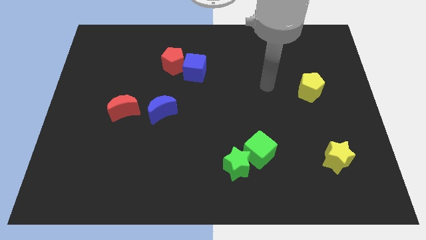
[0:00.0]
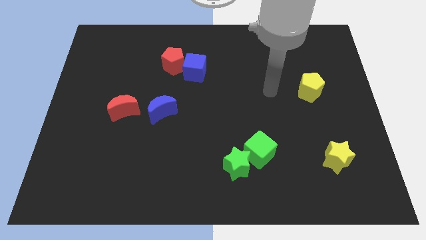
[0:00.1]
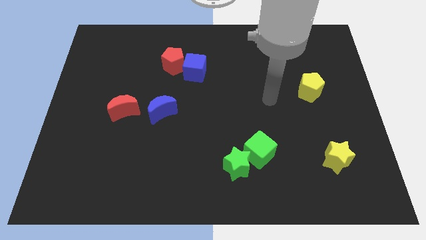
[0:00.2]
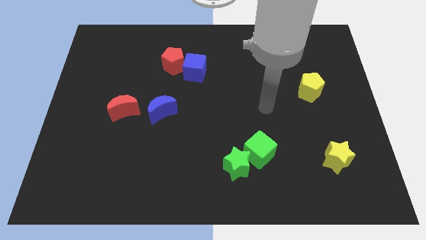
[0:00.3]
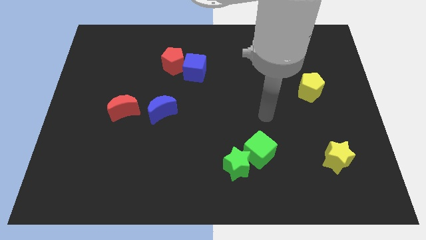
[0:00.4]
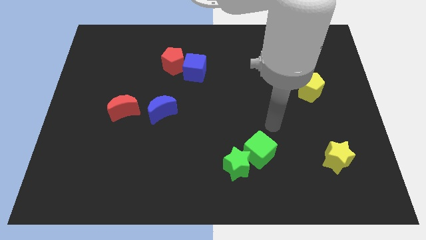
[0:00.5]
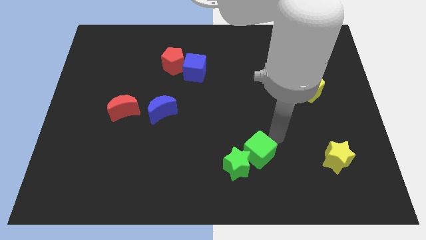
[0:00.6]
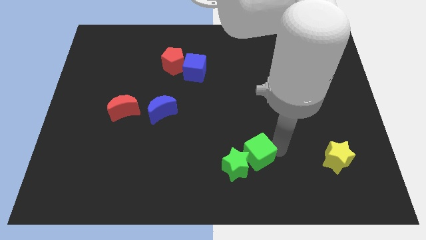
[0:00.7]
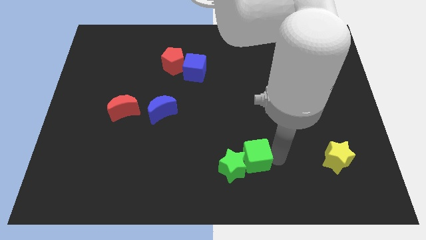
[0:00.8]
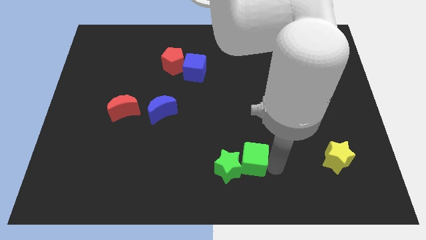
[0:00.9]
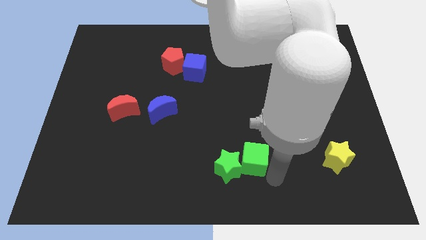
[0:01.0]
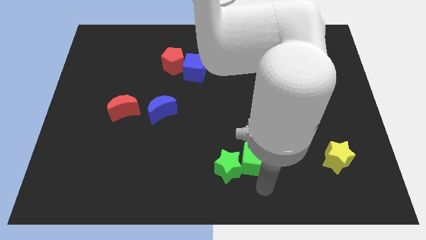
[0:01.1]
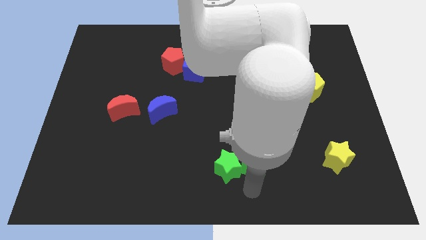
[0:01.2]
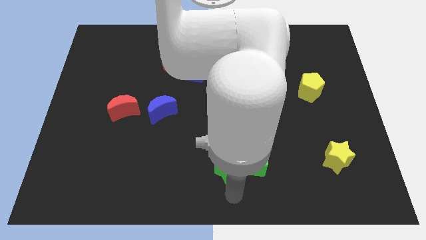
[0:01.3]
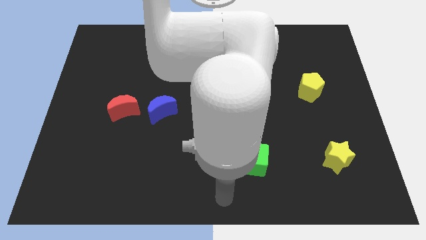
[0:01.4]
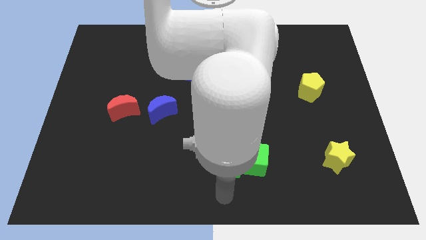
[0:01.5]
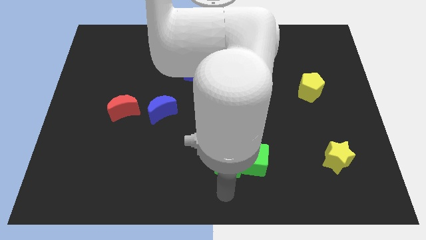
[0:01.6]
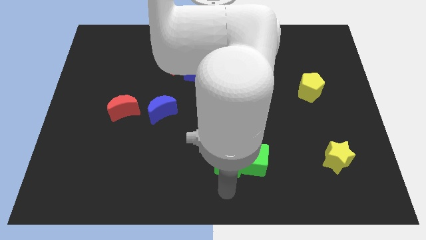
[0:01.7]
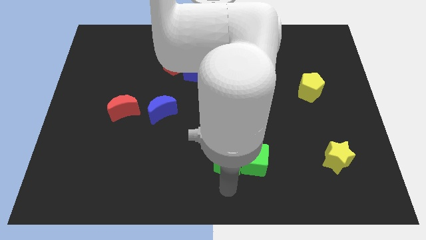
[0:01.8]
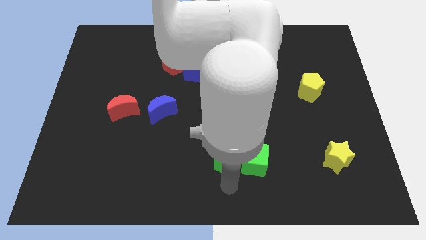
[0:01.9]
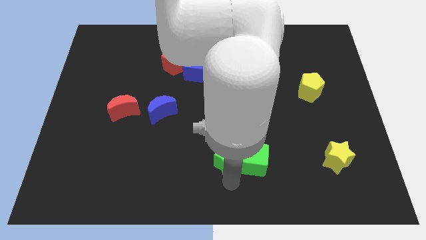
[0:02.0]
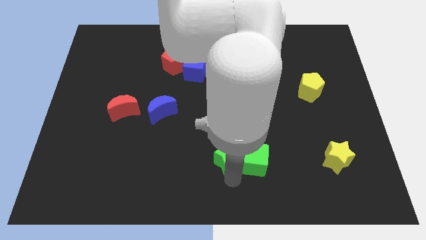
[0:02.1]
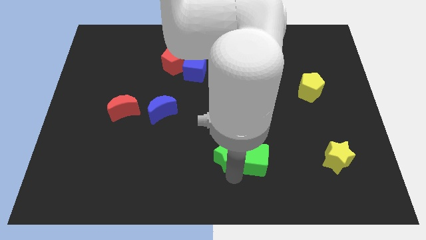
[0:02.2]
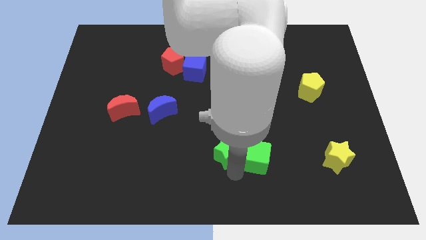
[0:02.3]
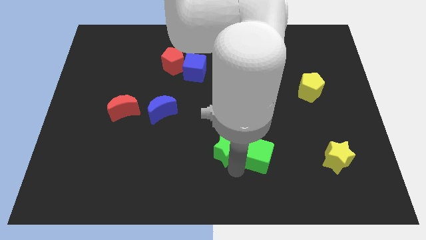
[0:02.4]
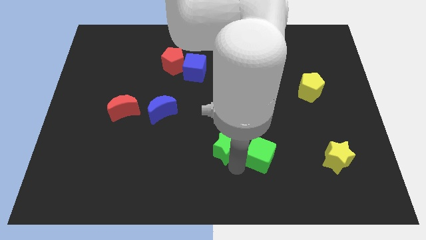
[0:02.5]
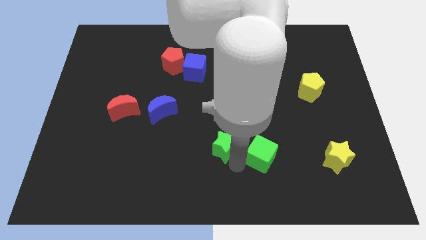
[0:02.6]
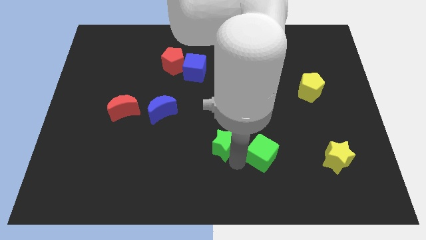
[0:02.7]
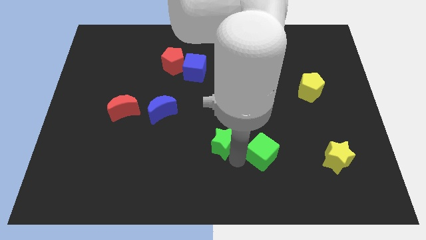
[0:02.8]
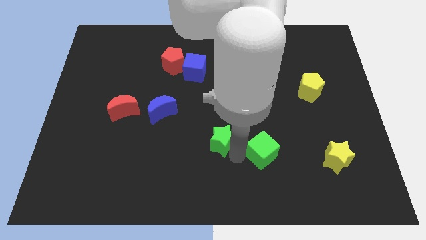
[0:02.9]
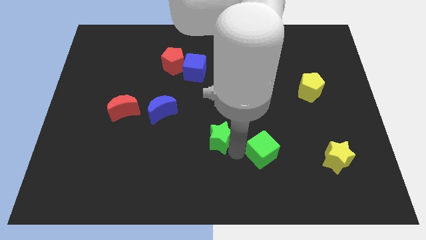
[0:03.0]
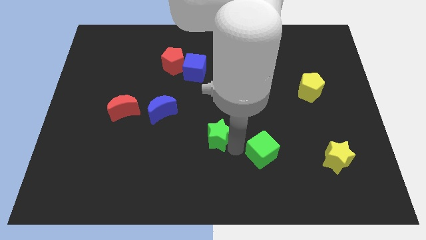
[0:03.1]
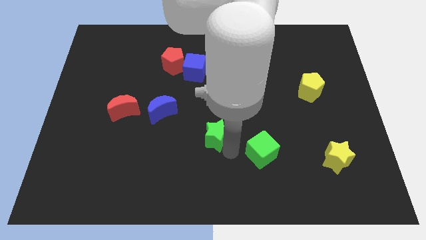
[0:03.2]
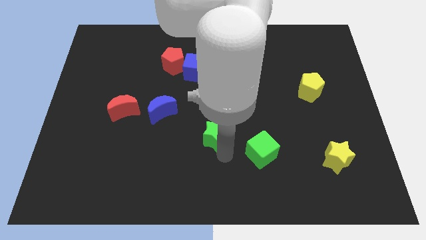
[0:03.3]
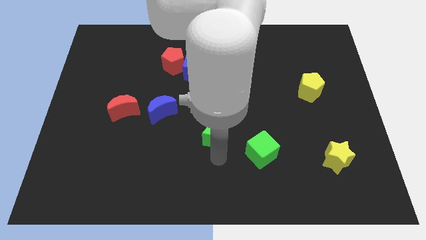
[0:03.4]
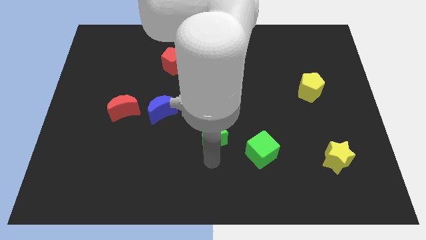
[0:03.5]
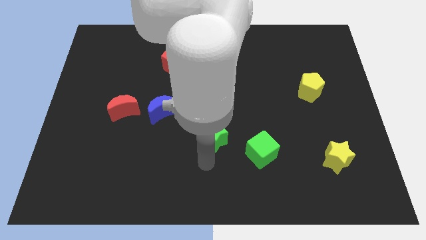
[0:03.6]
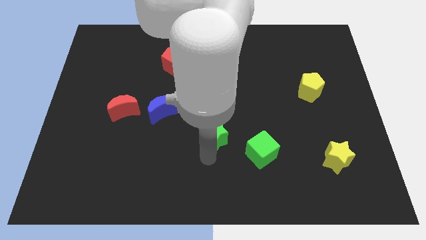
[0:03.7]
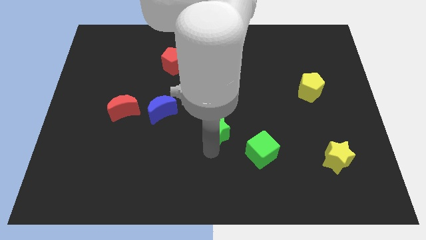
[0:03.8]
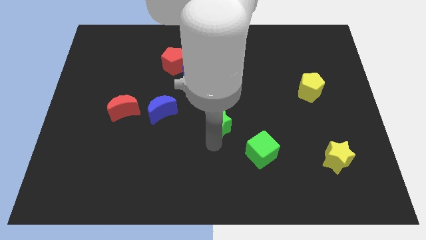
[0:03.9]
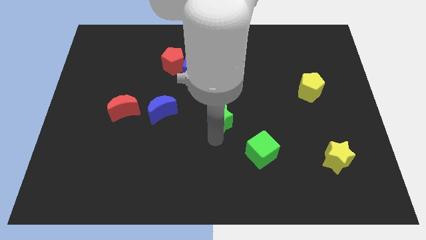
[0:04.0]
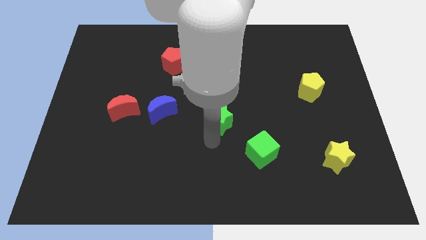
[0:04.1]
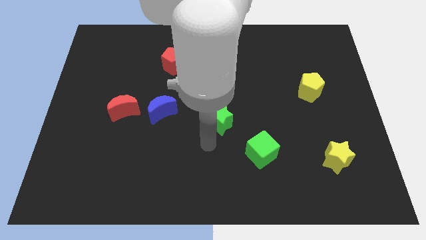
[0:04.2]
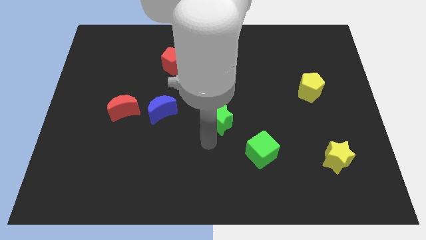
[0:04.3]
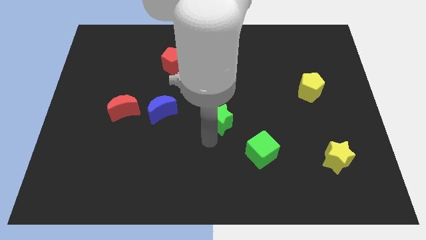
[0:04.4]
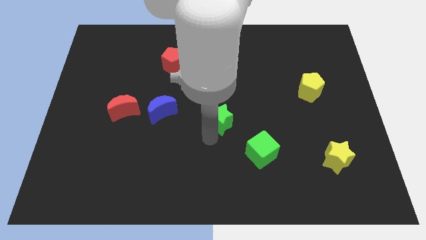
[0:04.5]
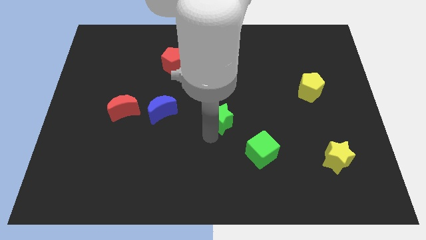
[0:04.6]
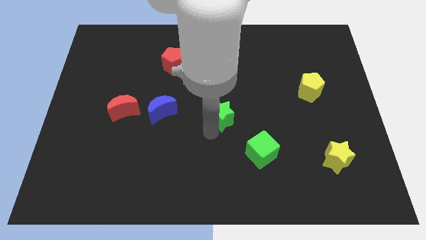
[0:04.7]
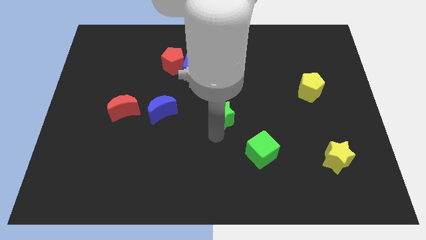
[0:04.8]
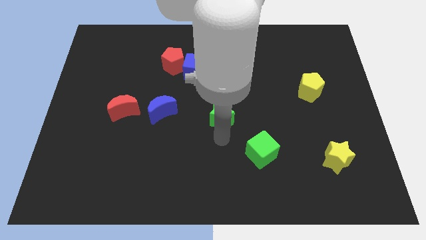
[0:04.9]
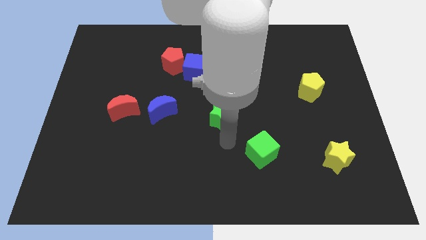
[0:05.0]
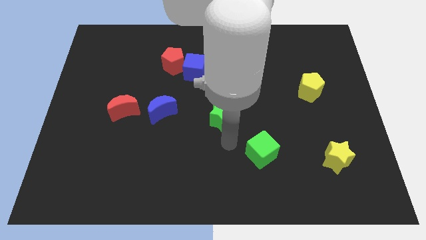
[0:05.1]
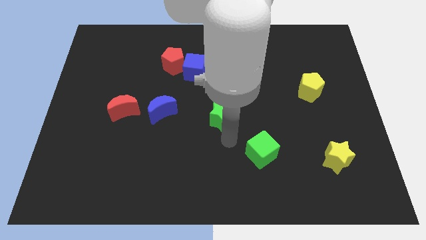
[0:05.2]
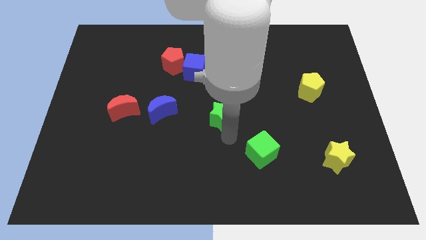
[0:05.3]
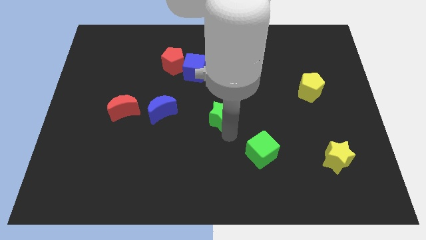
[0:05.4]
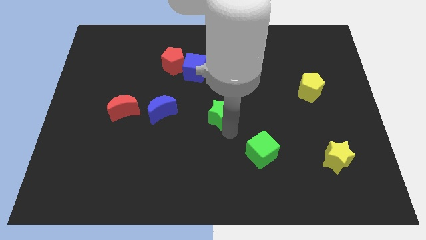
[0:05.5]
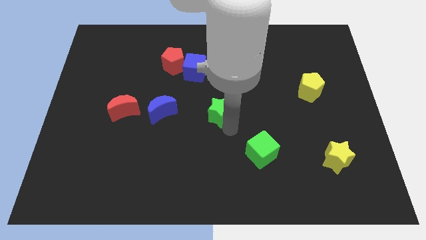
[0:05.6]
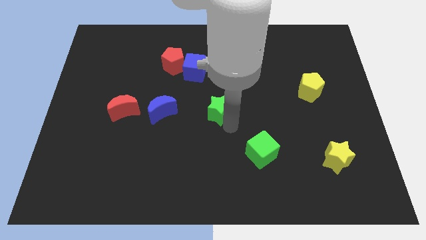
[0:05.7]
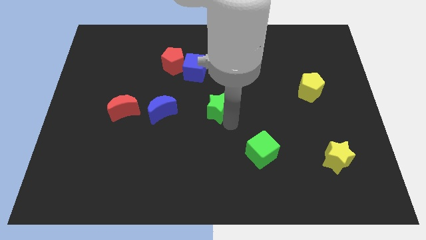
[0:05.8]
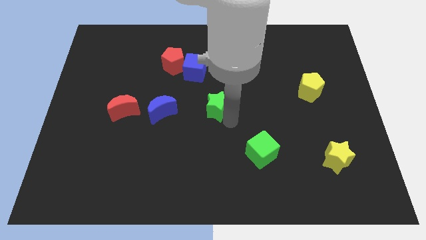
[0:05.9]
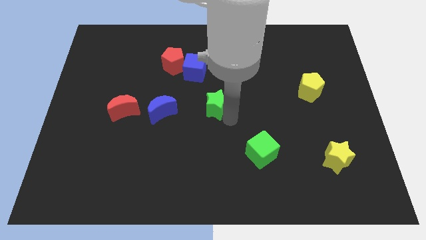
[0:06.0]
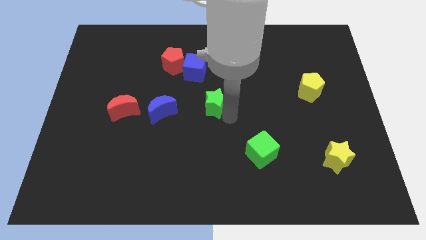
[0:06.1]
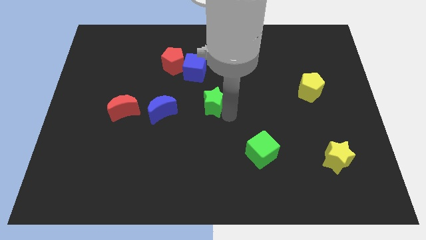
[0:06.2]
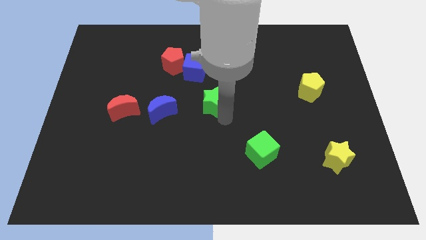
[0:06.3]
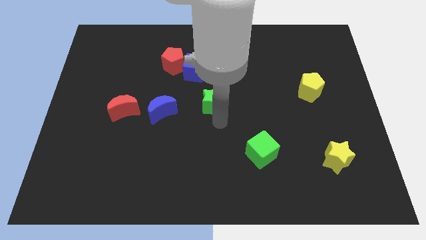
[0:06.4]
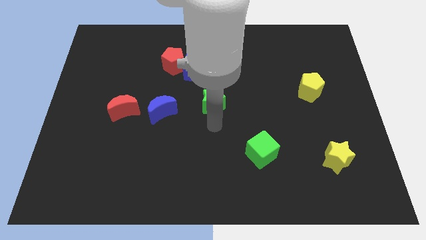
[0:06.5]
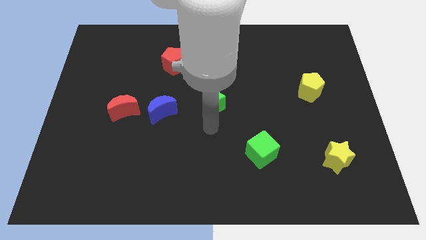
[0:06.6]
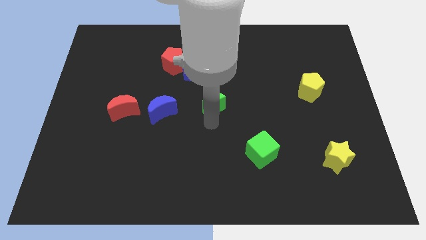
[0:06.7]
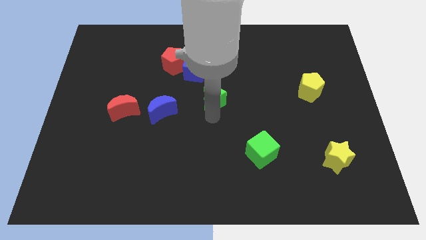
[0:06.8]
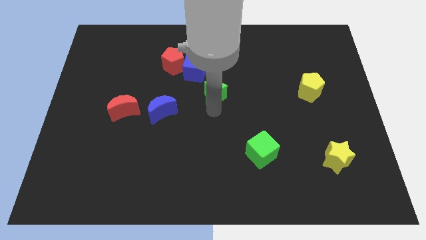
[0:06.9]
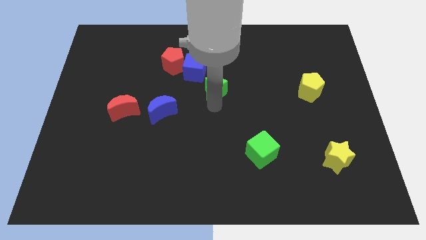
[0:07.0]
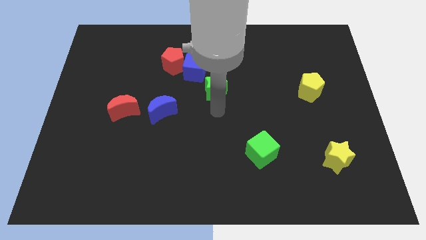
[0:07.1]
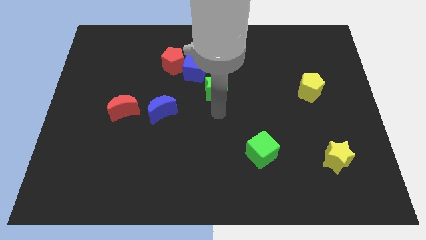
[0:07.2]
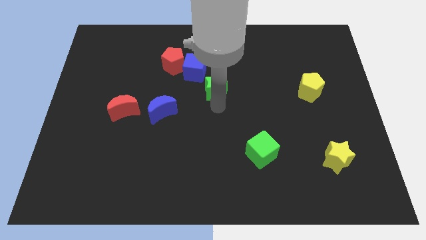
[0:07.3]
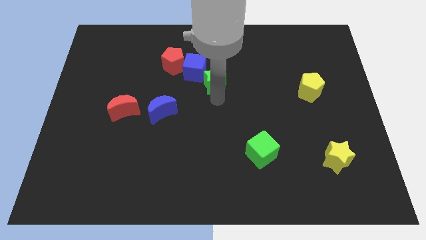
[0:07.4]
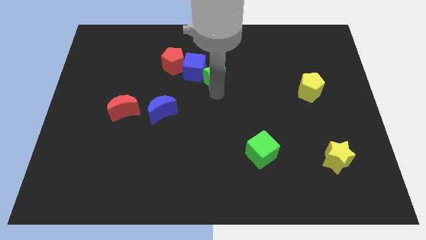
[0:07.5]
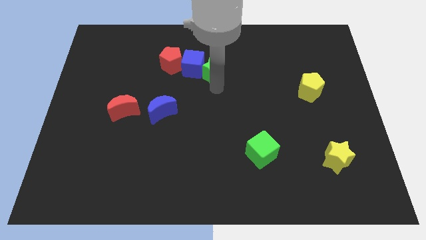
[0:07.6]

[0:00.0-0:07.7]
push the green star to the right side of the red pentagon
